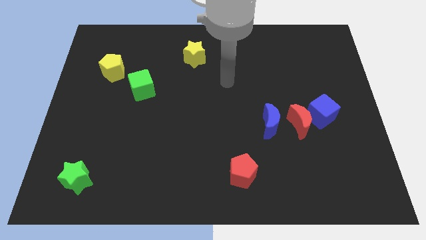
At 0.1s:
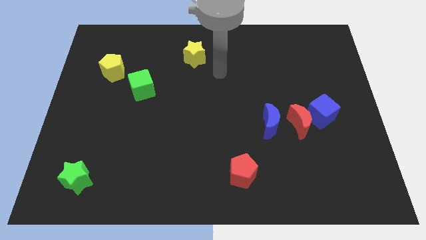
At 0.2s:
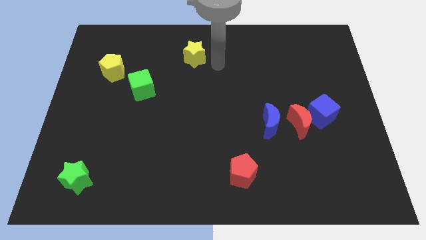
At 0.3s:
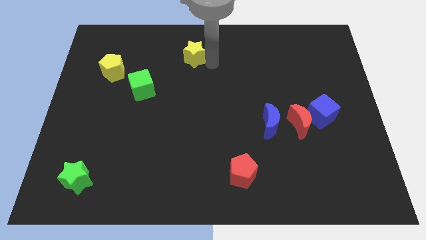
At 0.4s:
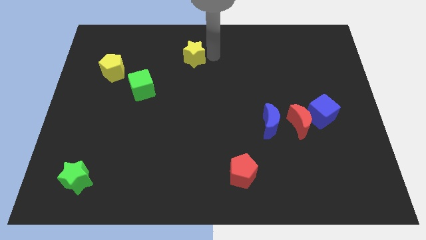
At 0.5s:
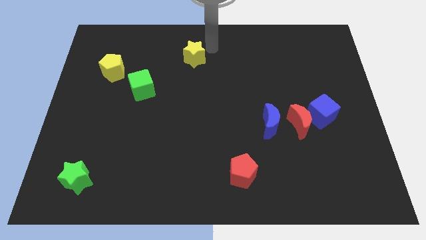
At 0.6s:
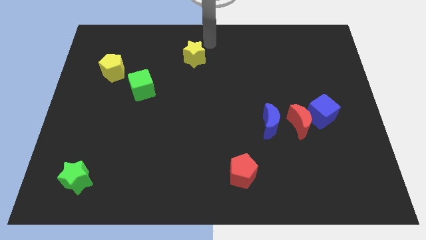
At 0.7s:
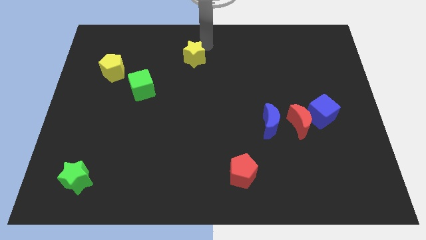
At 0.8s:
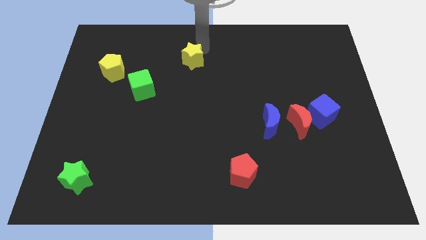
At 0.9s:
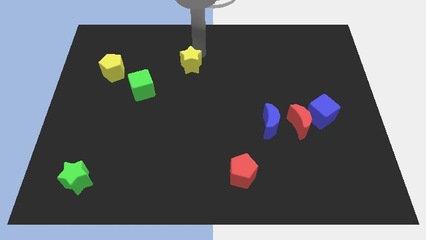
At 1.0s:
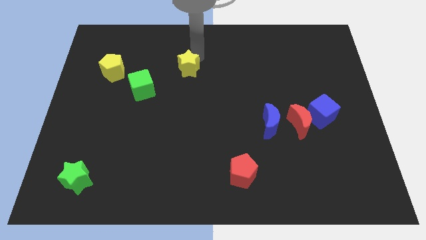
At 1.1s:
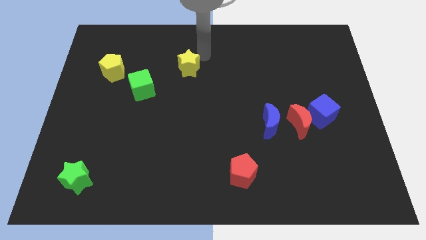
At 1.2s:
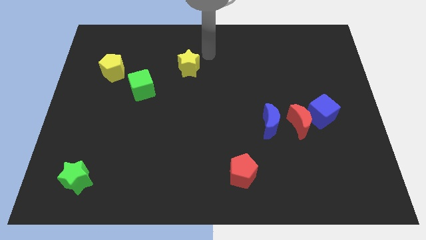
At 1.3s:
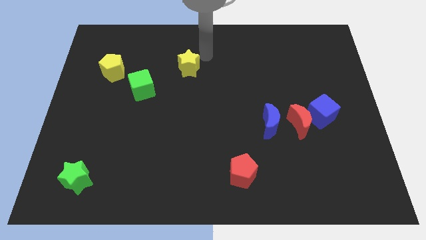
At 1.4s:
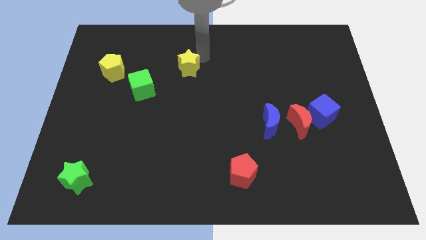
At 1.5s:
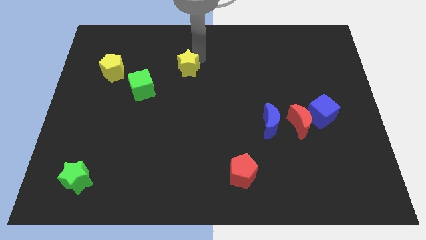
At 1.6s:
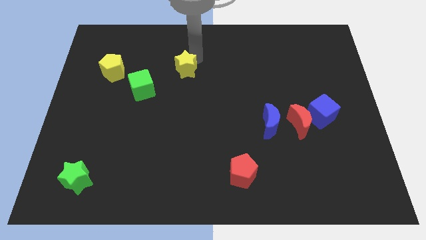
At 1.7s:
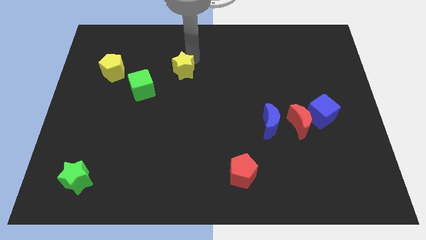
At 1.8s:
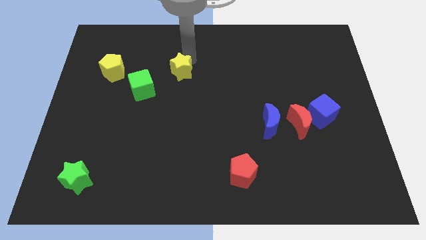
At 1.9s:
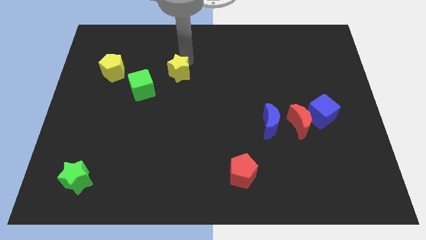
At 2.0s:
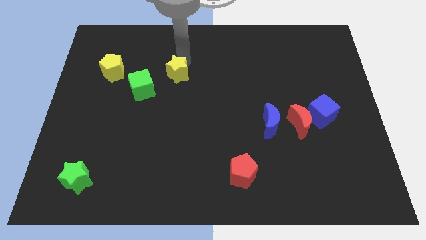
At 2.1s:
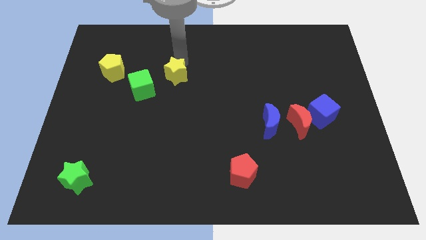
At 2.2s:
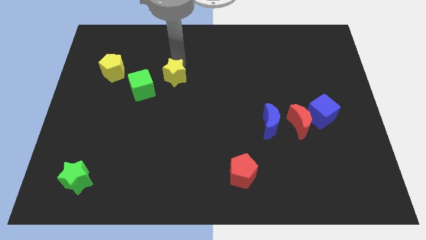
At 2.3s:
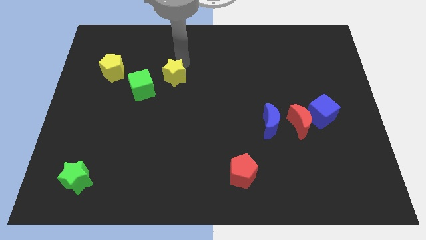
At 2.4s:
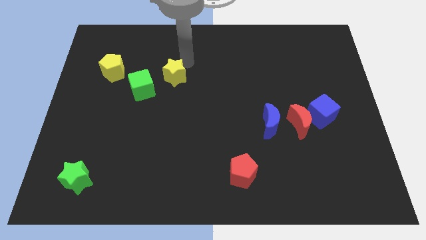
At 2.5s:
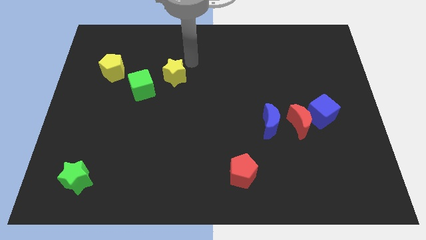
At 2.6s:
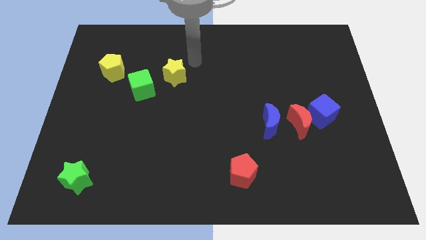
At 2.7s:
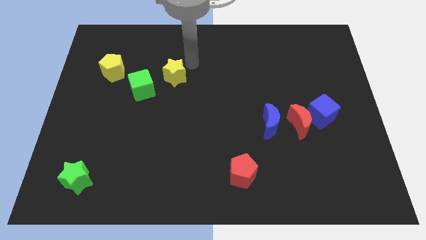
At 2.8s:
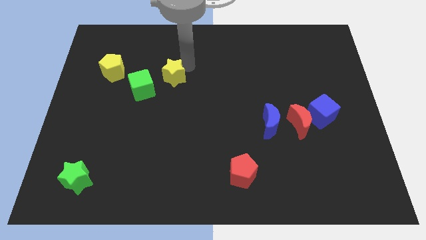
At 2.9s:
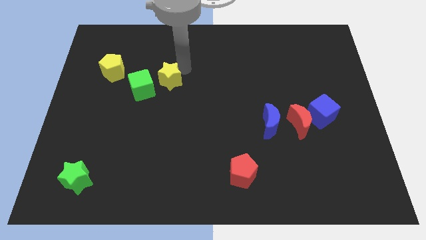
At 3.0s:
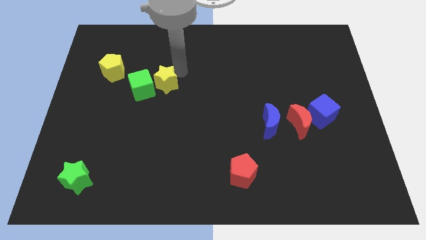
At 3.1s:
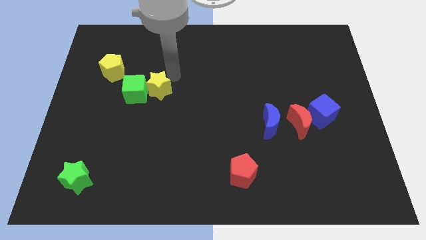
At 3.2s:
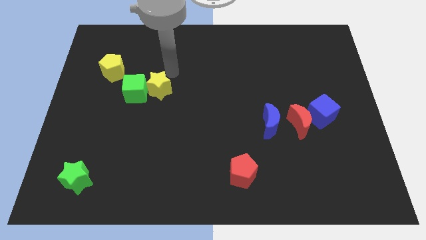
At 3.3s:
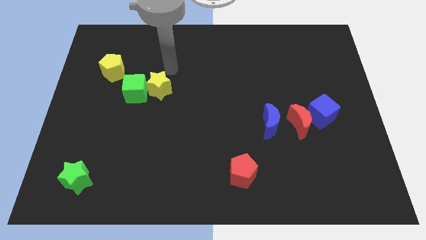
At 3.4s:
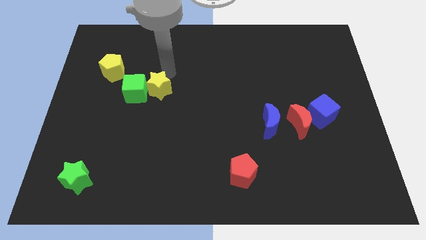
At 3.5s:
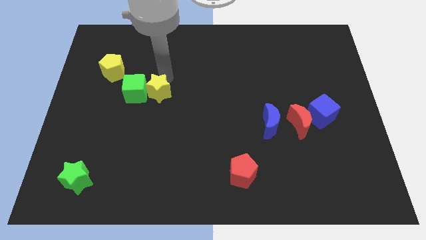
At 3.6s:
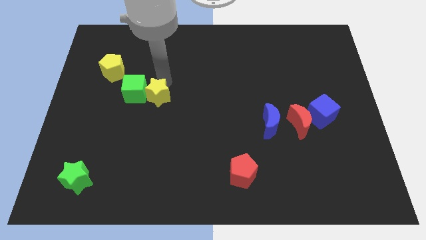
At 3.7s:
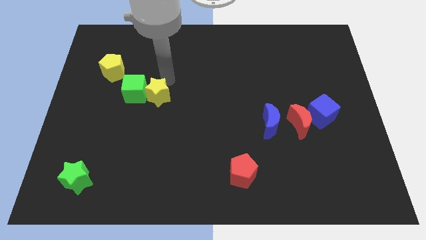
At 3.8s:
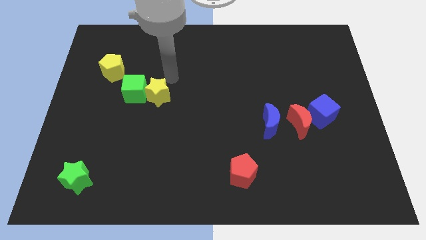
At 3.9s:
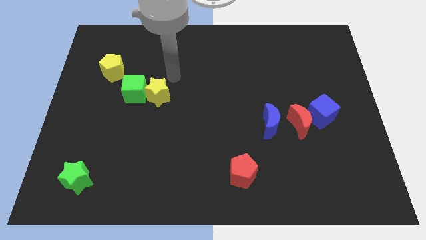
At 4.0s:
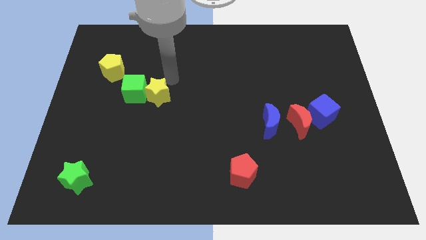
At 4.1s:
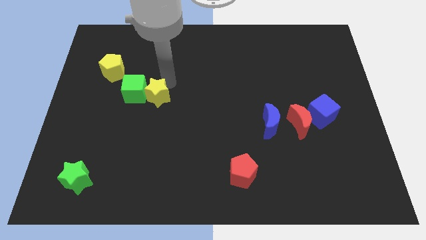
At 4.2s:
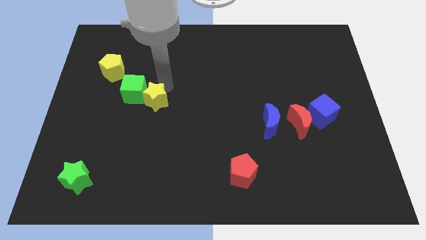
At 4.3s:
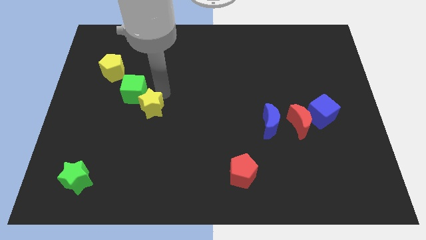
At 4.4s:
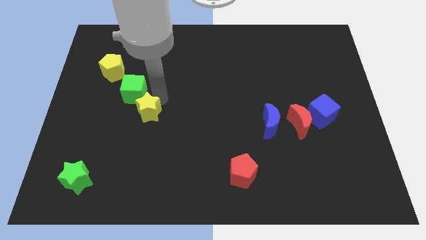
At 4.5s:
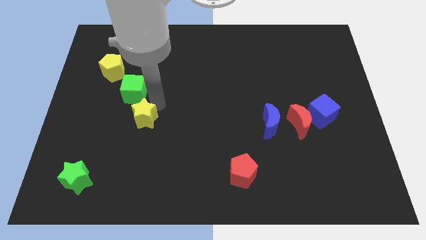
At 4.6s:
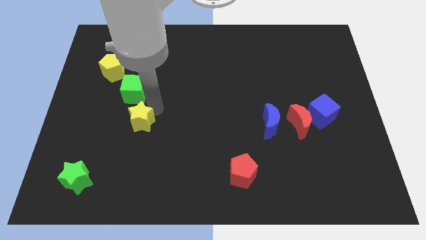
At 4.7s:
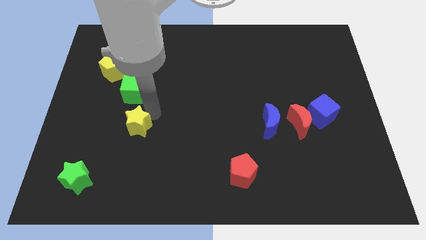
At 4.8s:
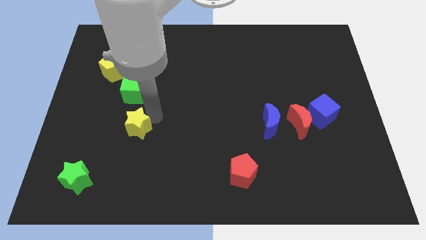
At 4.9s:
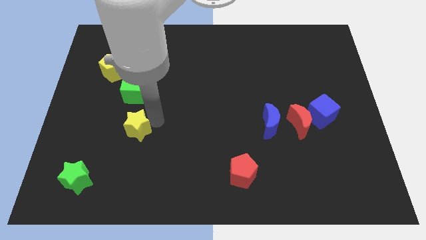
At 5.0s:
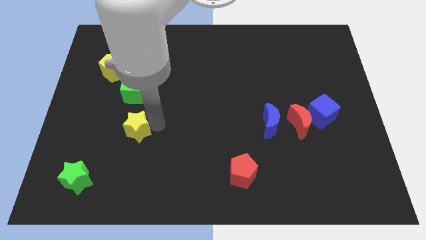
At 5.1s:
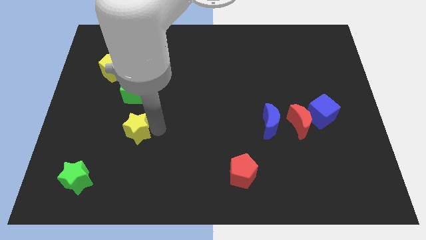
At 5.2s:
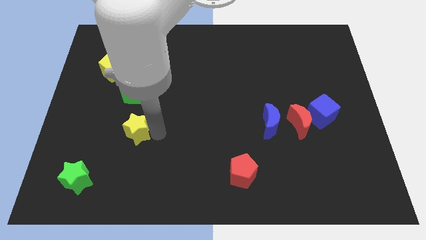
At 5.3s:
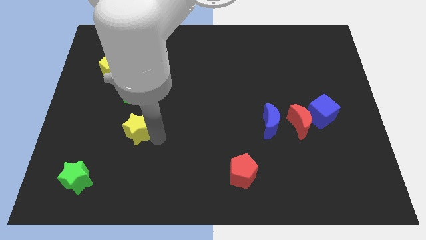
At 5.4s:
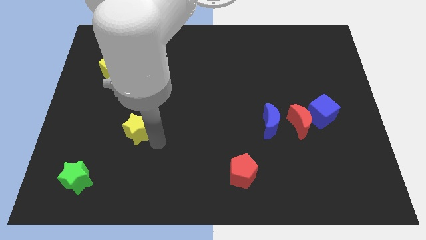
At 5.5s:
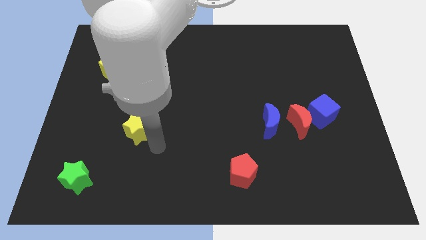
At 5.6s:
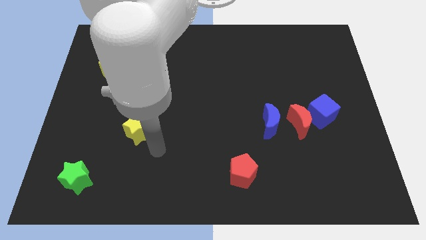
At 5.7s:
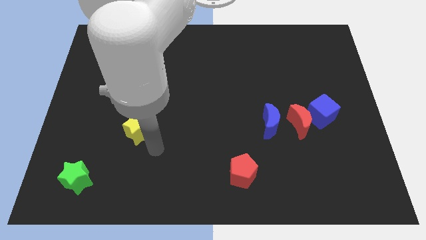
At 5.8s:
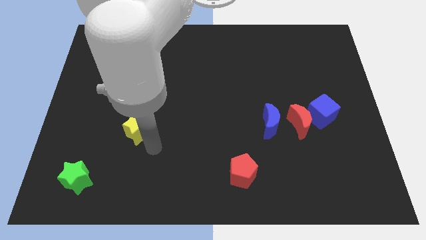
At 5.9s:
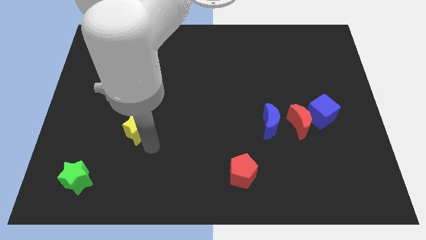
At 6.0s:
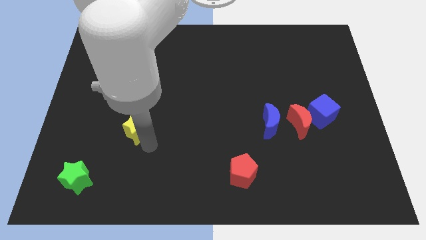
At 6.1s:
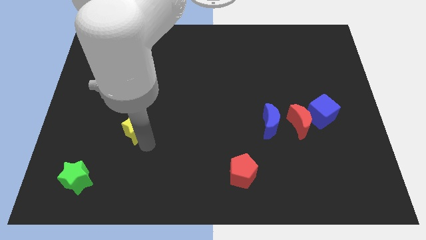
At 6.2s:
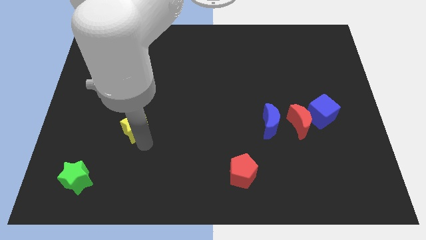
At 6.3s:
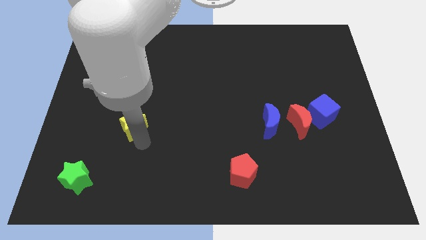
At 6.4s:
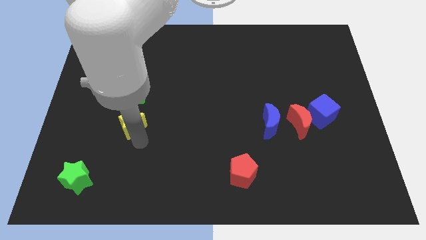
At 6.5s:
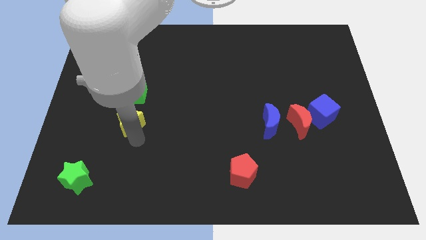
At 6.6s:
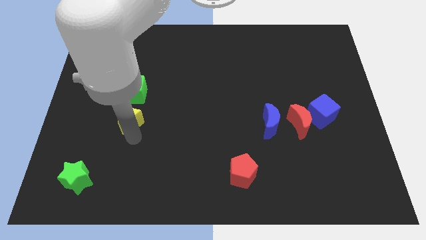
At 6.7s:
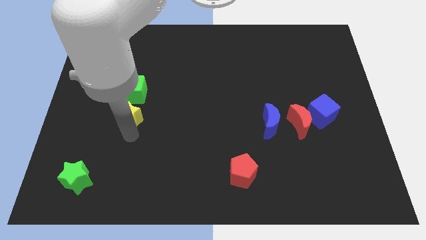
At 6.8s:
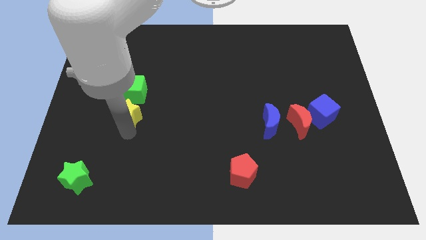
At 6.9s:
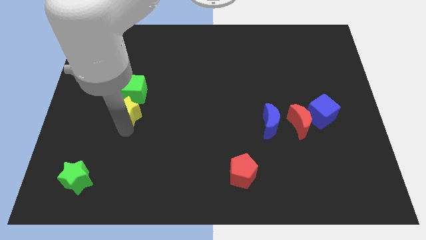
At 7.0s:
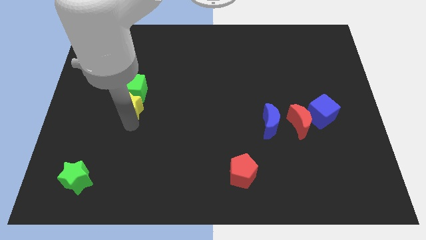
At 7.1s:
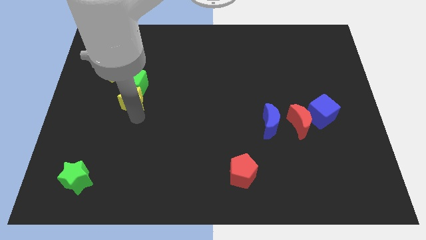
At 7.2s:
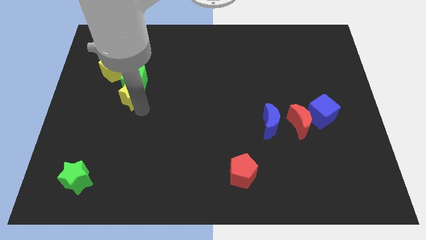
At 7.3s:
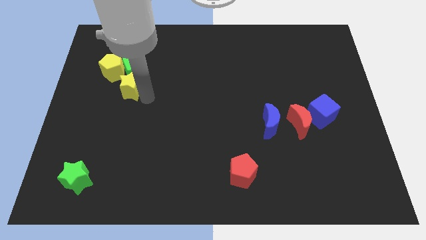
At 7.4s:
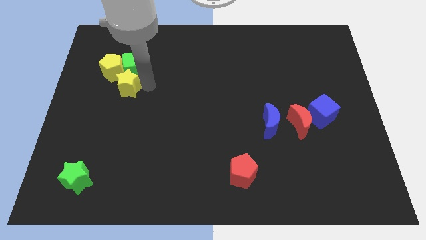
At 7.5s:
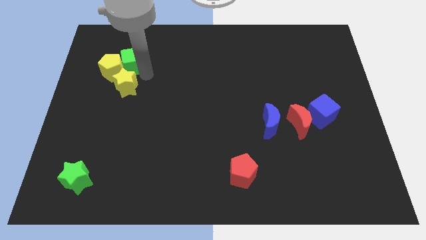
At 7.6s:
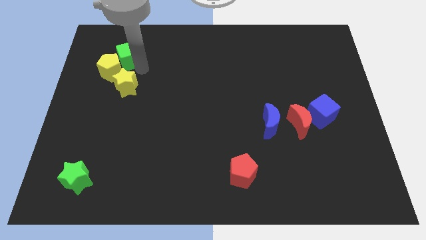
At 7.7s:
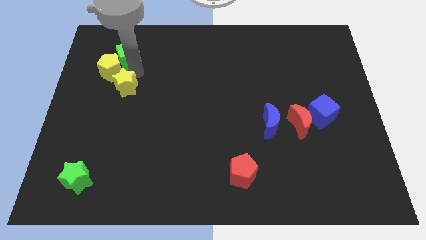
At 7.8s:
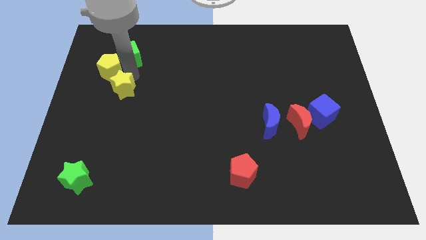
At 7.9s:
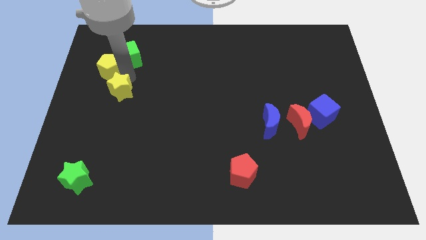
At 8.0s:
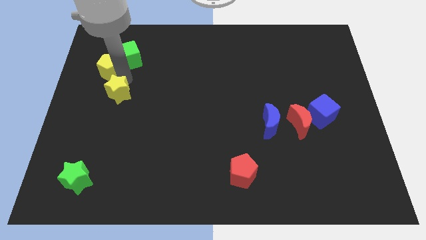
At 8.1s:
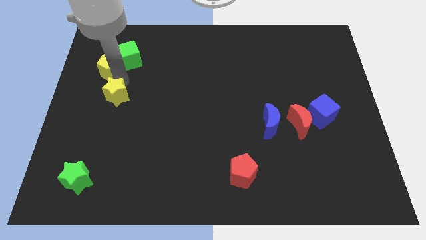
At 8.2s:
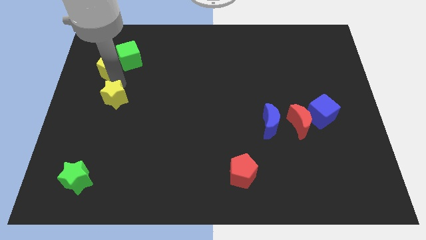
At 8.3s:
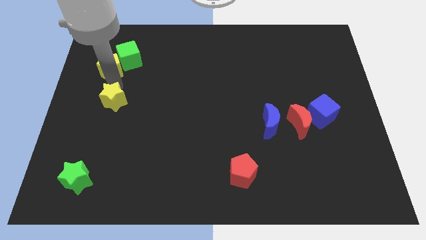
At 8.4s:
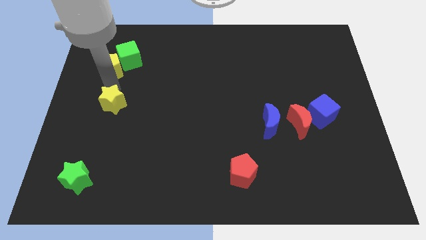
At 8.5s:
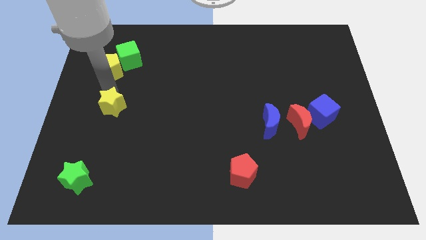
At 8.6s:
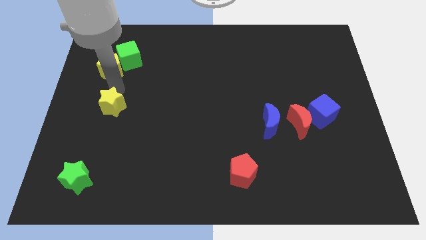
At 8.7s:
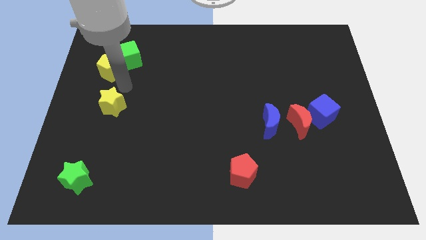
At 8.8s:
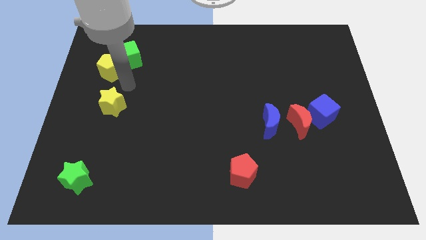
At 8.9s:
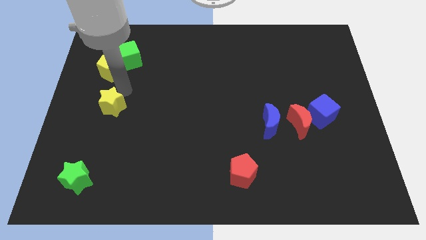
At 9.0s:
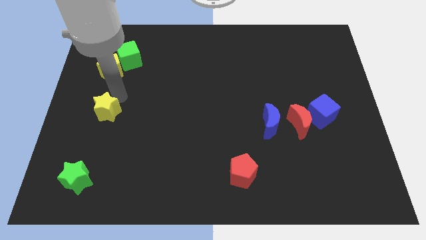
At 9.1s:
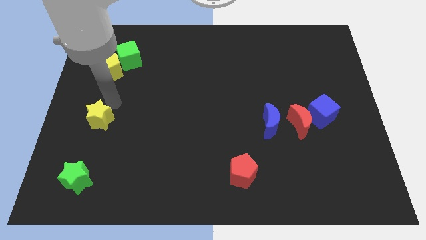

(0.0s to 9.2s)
push the yellow star to the top side of the green star
